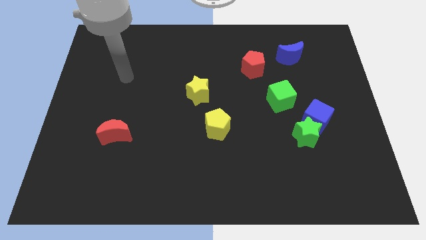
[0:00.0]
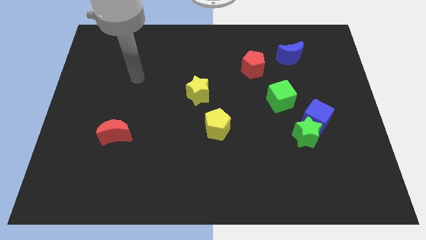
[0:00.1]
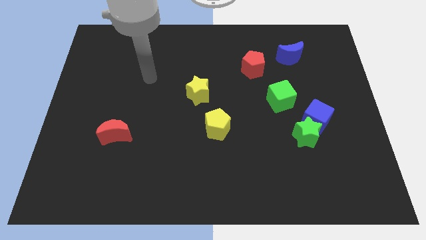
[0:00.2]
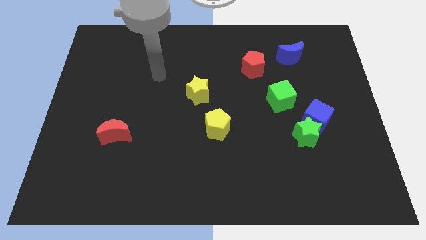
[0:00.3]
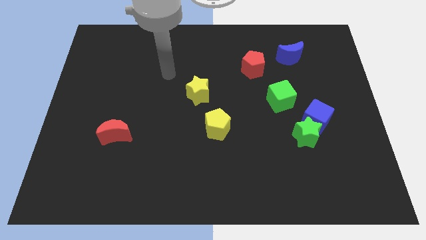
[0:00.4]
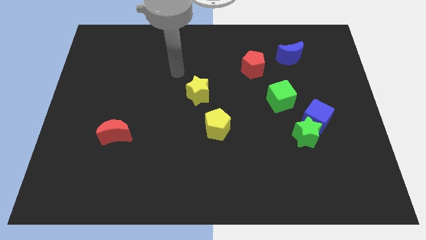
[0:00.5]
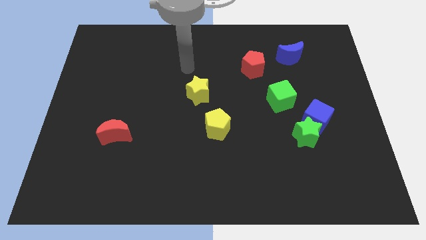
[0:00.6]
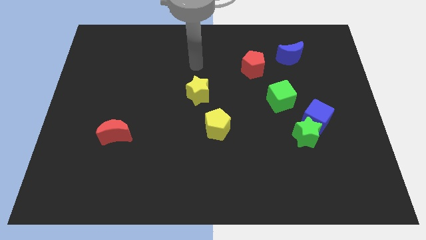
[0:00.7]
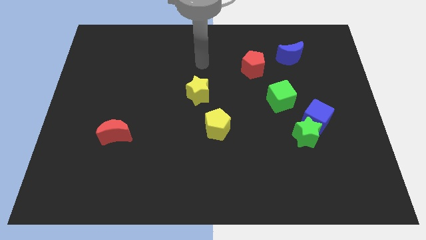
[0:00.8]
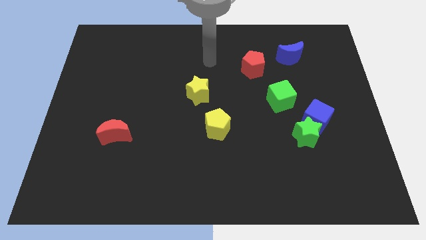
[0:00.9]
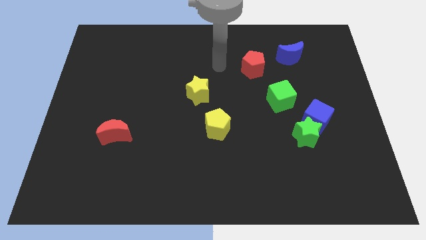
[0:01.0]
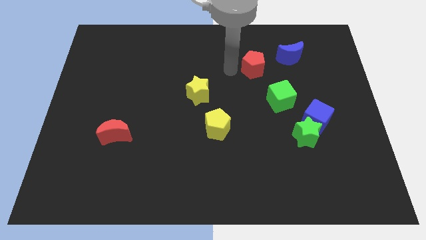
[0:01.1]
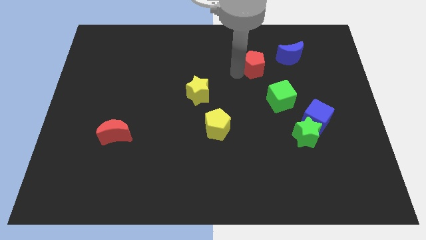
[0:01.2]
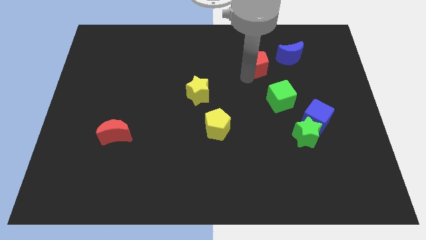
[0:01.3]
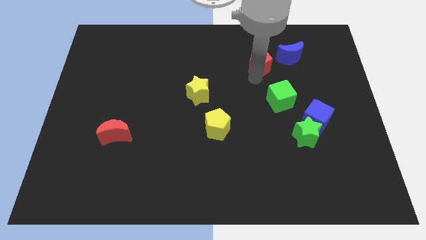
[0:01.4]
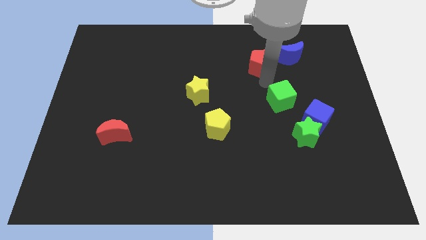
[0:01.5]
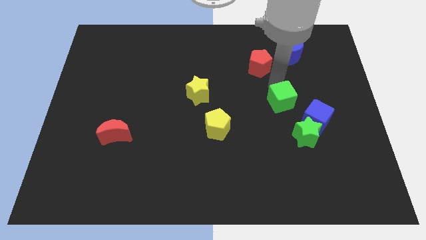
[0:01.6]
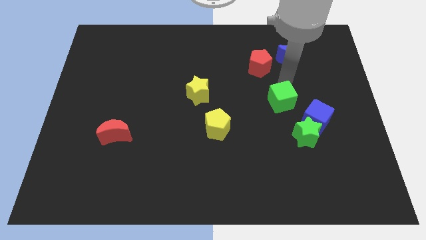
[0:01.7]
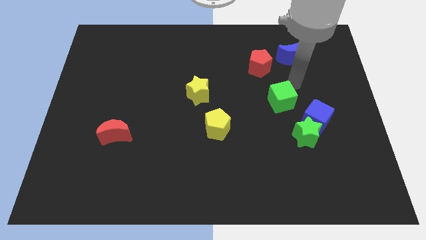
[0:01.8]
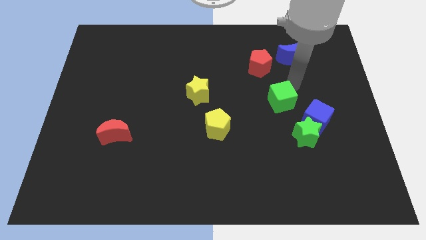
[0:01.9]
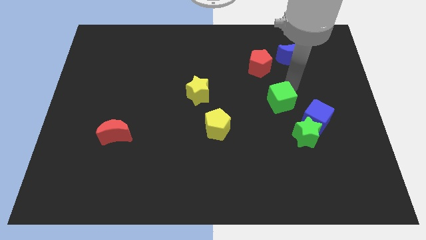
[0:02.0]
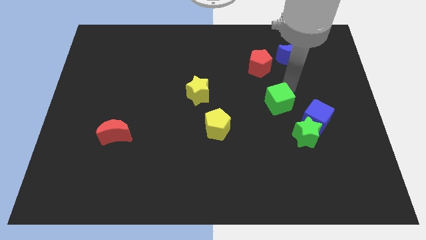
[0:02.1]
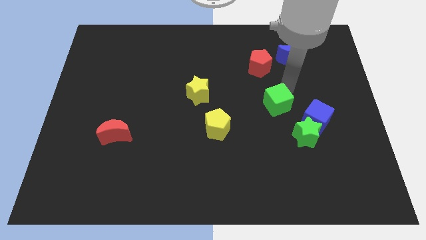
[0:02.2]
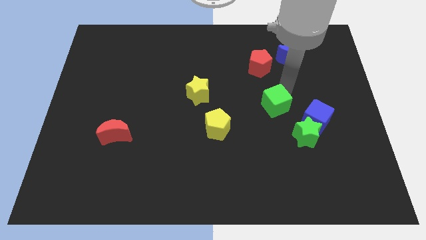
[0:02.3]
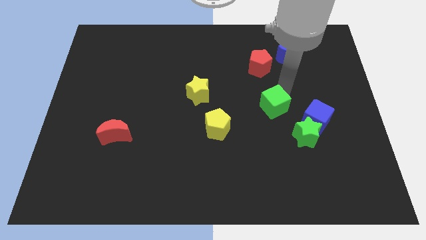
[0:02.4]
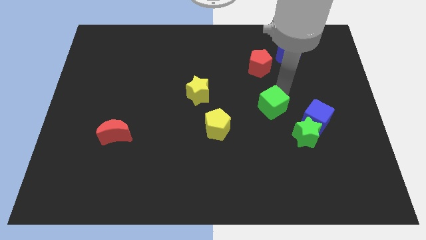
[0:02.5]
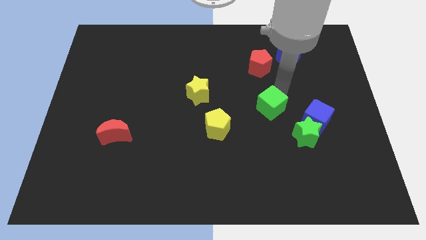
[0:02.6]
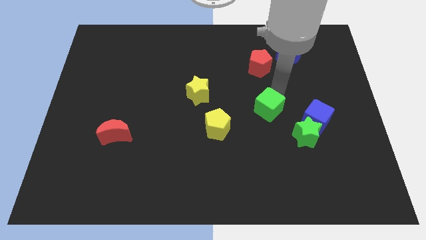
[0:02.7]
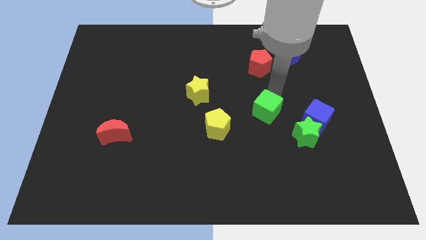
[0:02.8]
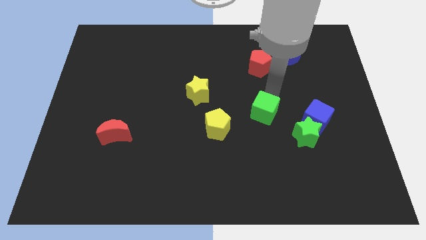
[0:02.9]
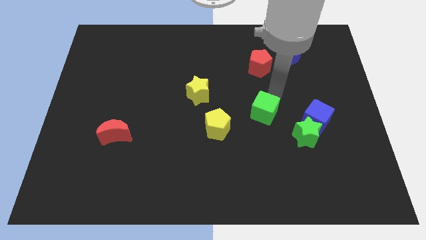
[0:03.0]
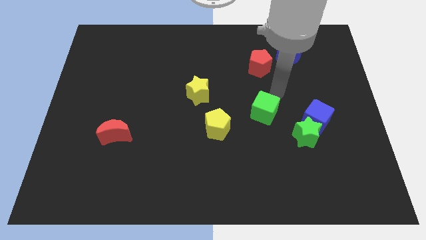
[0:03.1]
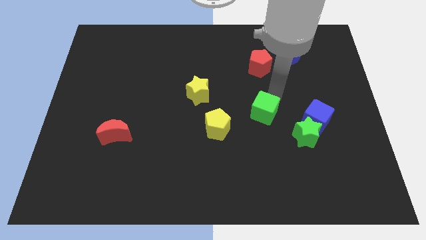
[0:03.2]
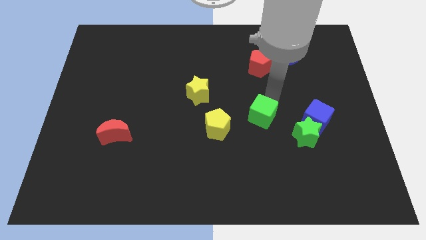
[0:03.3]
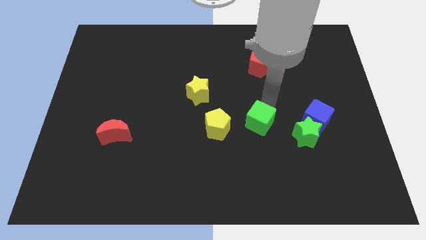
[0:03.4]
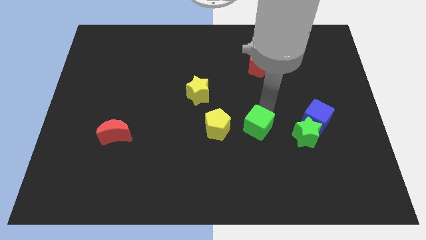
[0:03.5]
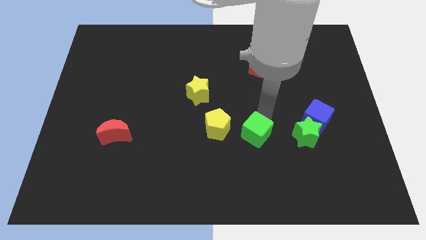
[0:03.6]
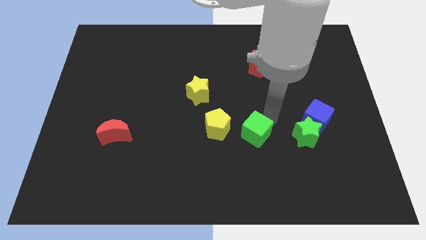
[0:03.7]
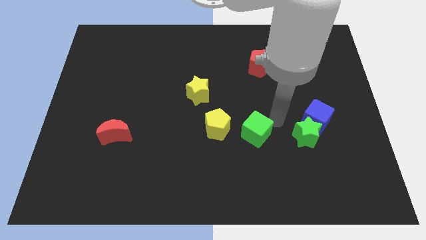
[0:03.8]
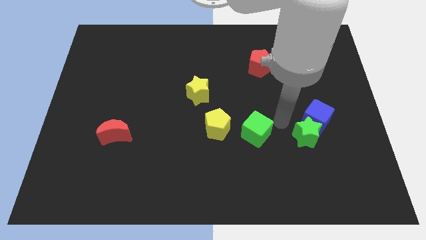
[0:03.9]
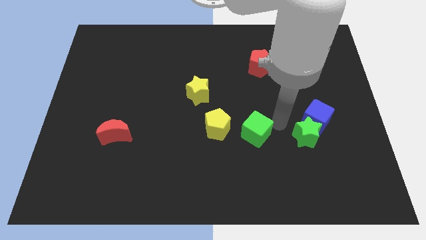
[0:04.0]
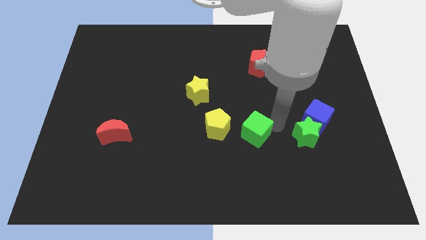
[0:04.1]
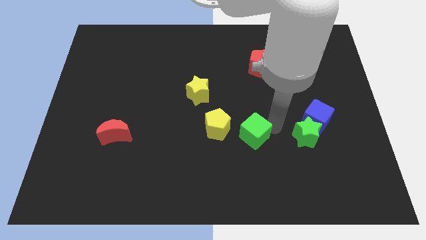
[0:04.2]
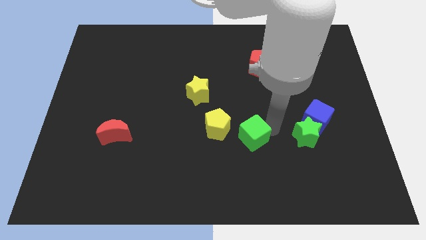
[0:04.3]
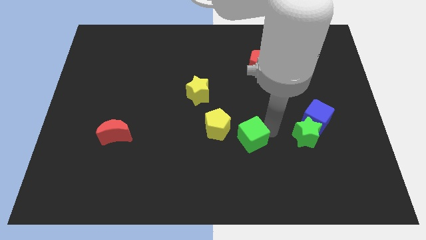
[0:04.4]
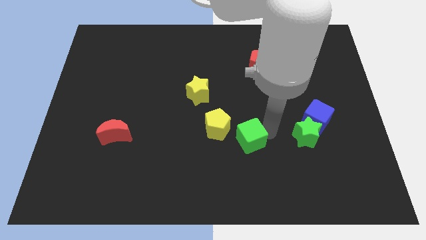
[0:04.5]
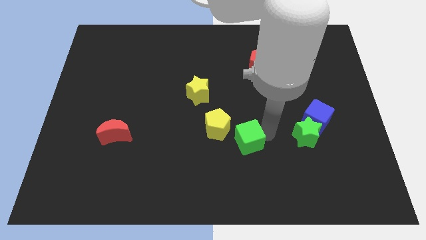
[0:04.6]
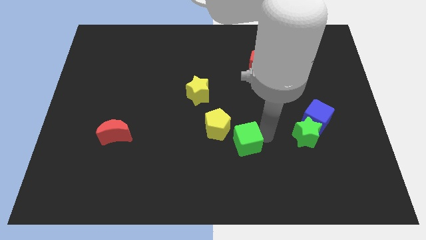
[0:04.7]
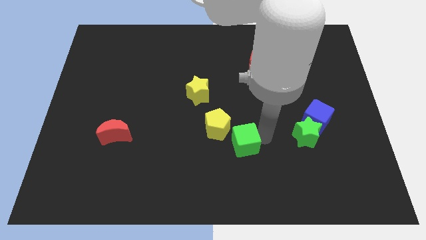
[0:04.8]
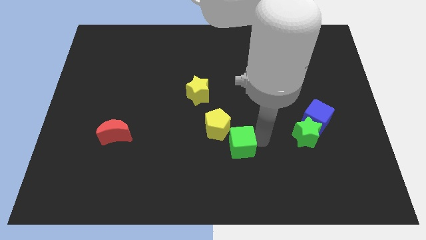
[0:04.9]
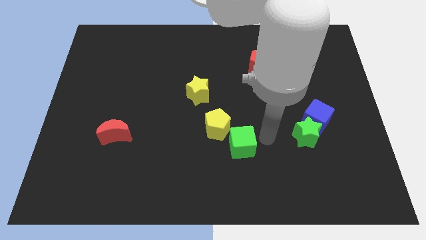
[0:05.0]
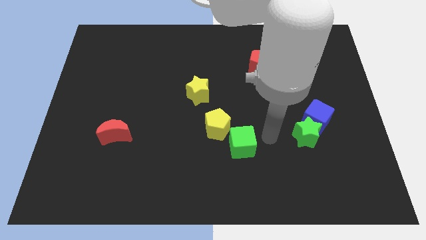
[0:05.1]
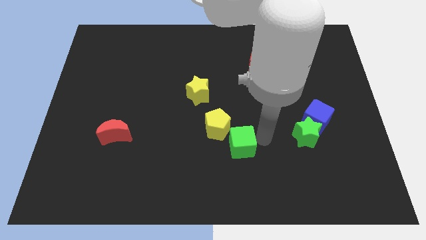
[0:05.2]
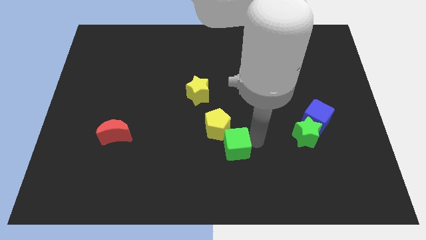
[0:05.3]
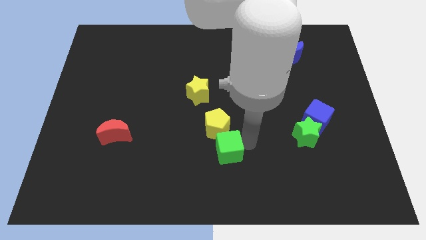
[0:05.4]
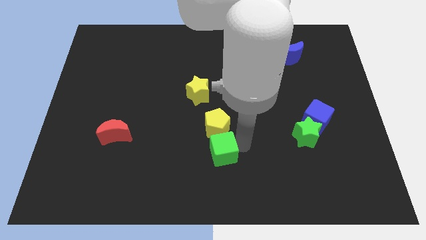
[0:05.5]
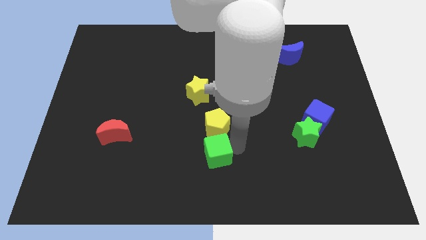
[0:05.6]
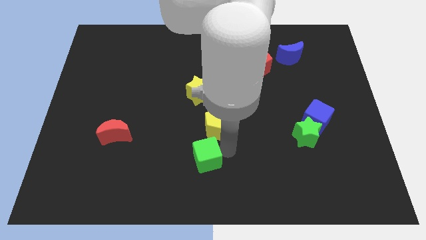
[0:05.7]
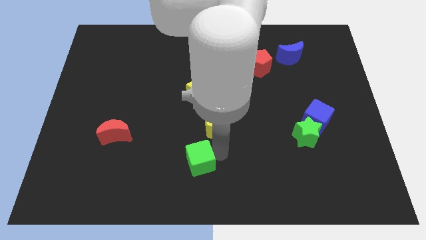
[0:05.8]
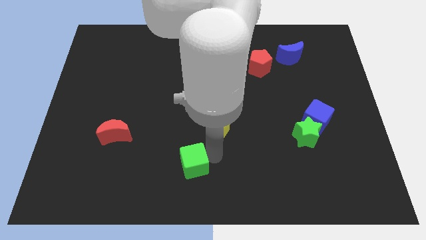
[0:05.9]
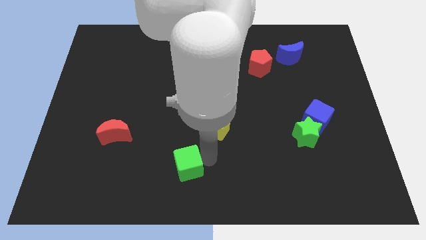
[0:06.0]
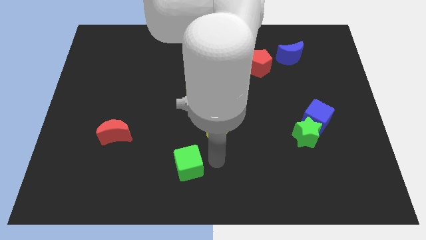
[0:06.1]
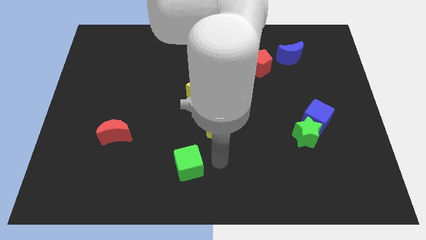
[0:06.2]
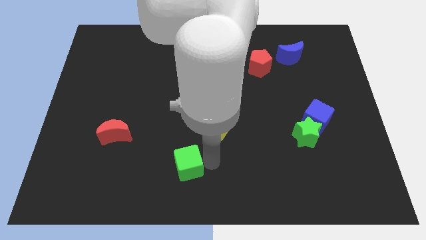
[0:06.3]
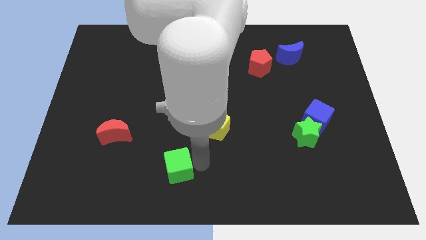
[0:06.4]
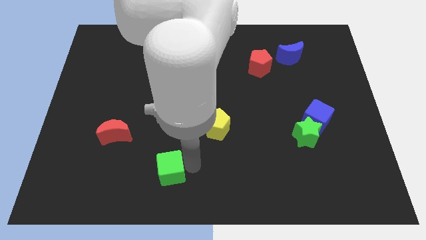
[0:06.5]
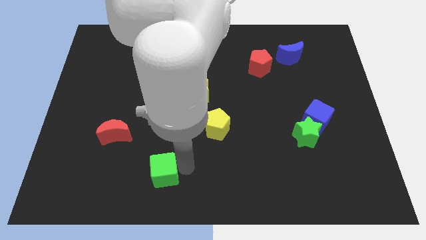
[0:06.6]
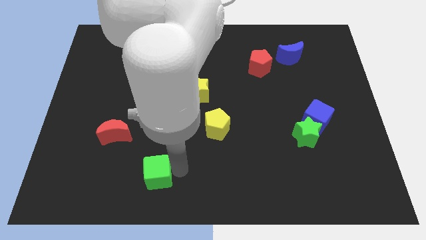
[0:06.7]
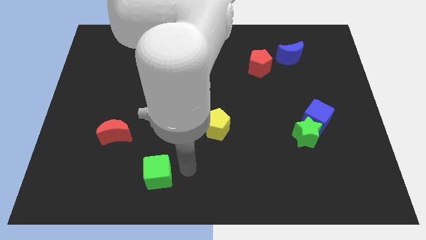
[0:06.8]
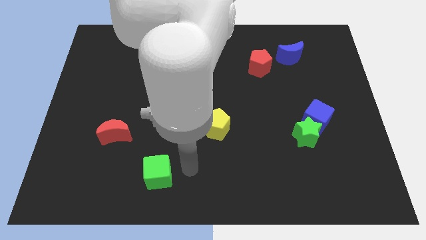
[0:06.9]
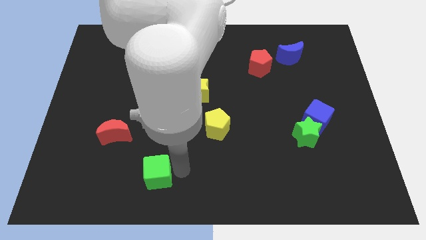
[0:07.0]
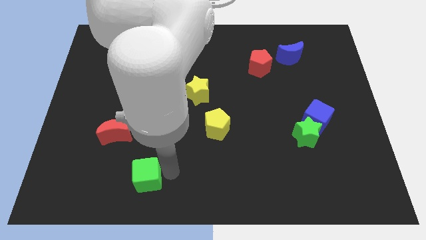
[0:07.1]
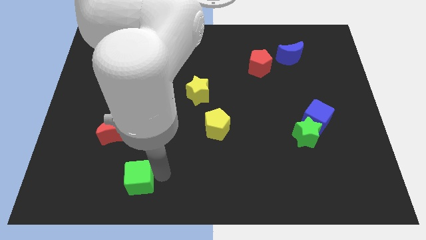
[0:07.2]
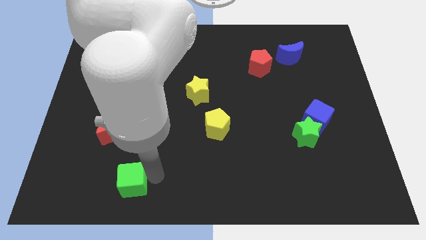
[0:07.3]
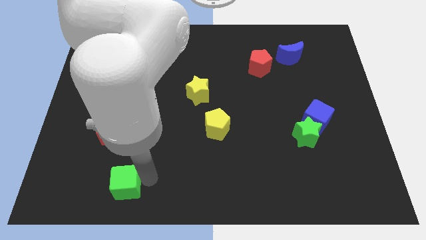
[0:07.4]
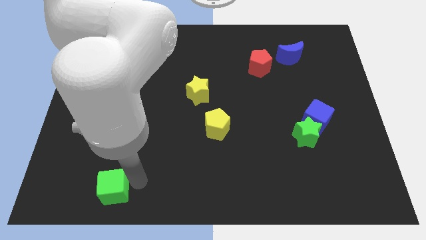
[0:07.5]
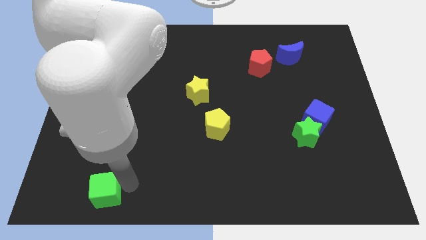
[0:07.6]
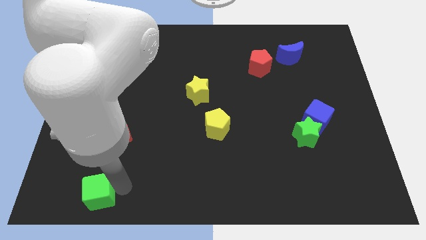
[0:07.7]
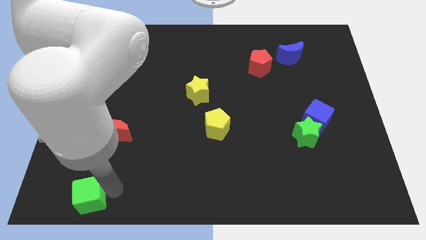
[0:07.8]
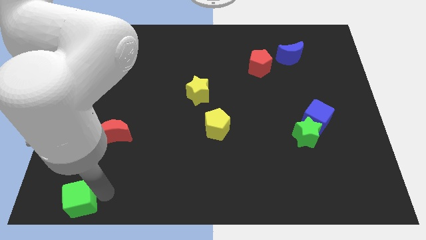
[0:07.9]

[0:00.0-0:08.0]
put the green cube to the bottom left
